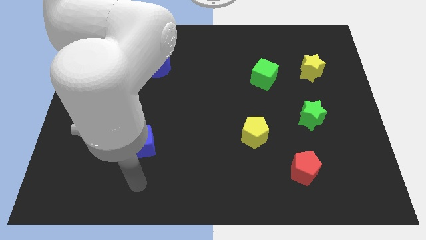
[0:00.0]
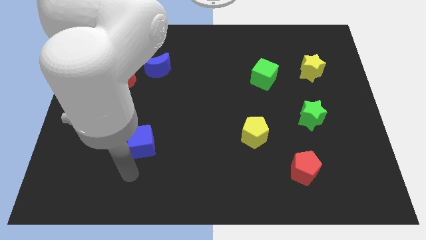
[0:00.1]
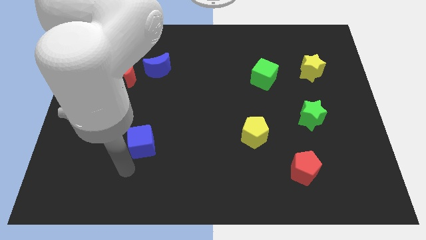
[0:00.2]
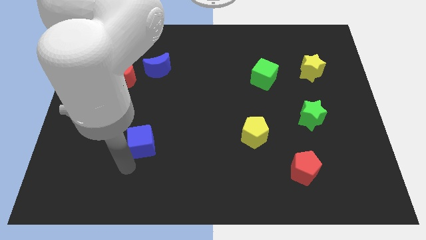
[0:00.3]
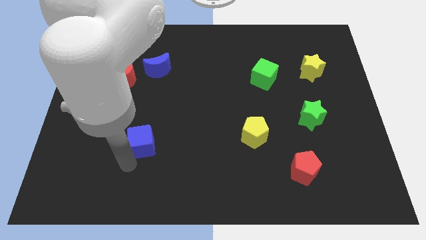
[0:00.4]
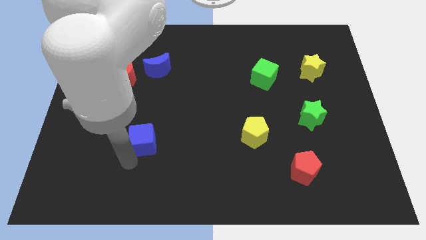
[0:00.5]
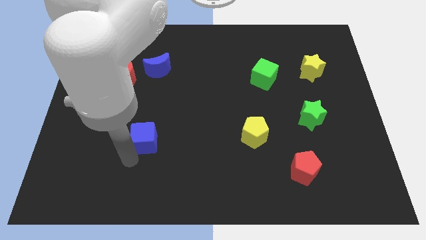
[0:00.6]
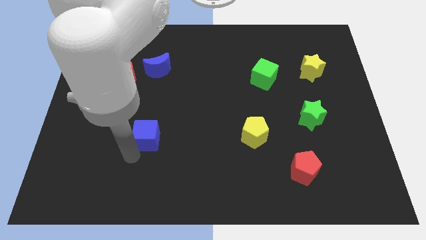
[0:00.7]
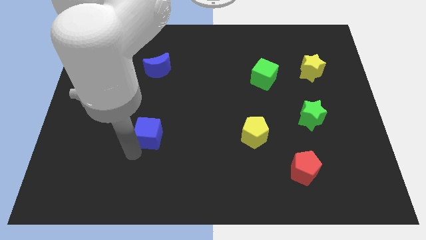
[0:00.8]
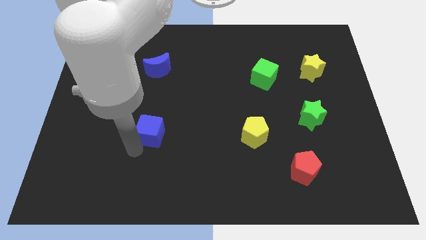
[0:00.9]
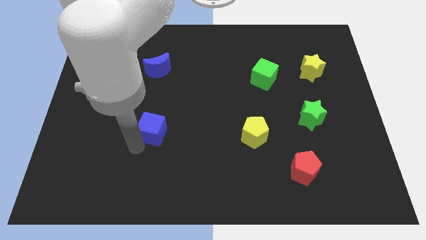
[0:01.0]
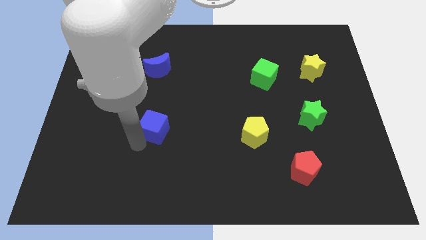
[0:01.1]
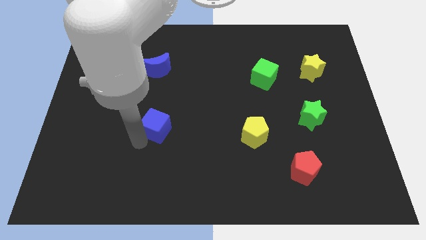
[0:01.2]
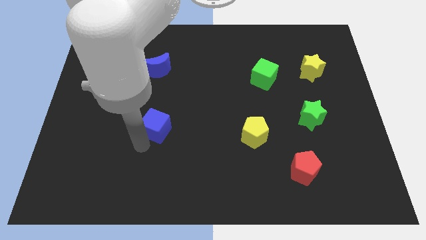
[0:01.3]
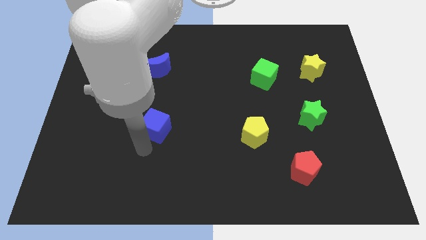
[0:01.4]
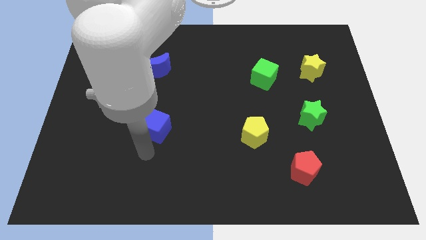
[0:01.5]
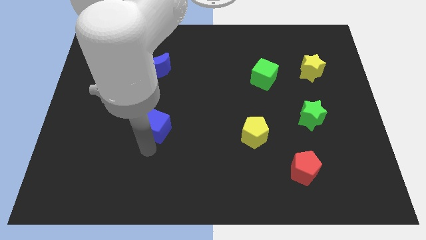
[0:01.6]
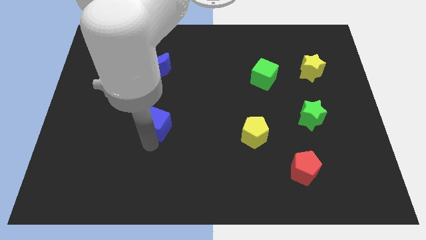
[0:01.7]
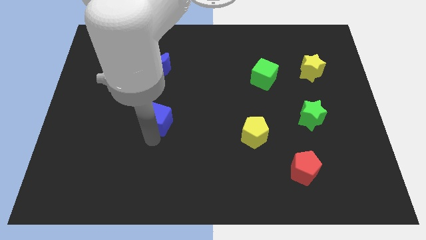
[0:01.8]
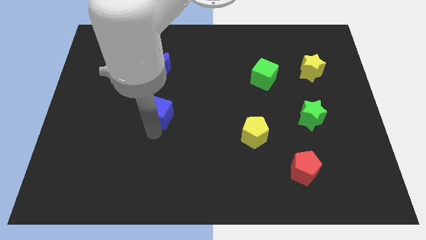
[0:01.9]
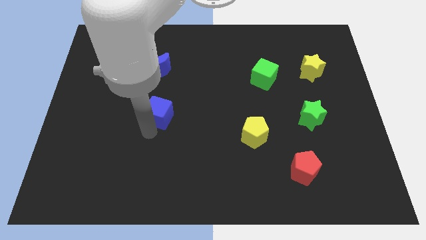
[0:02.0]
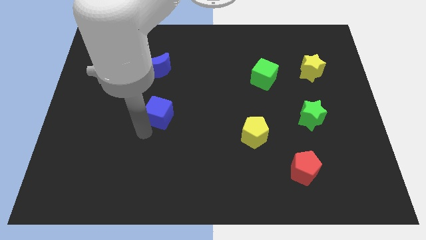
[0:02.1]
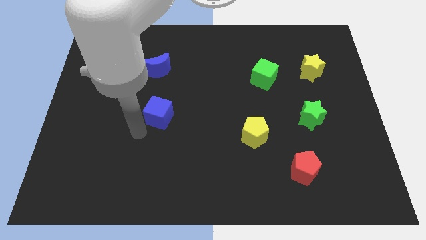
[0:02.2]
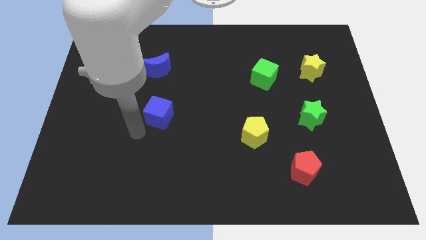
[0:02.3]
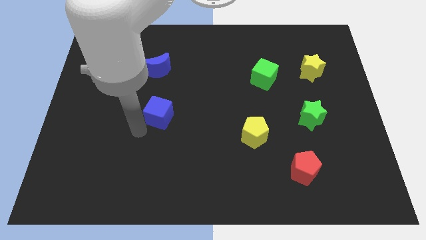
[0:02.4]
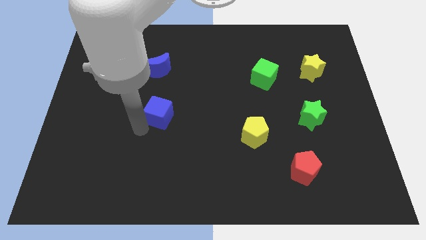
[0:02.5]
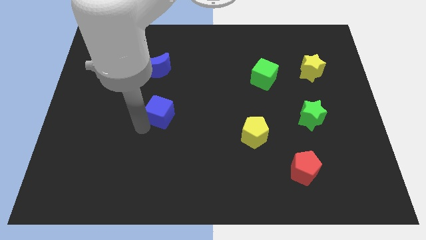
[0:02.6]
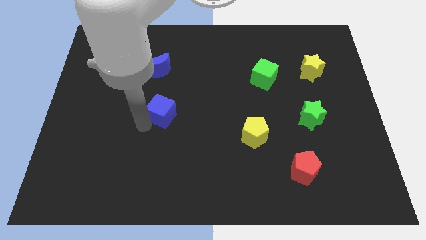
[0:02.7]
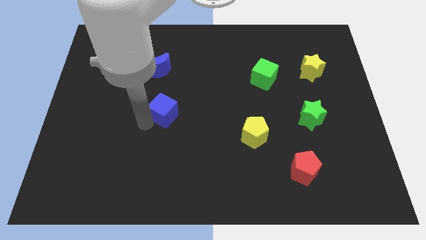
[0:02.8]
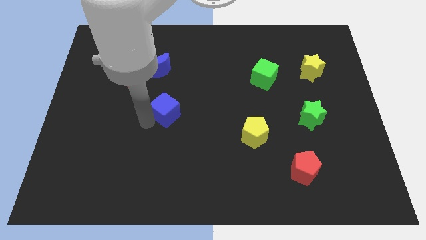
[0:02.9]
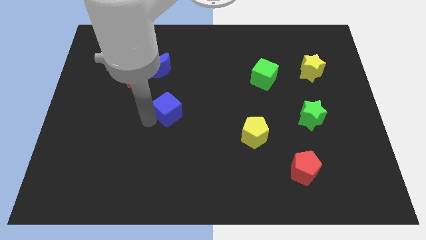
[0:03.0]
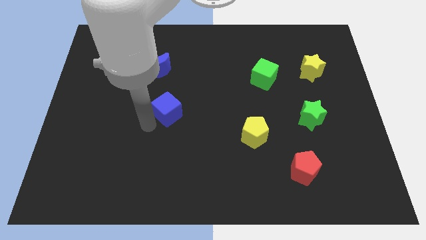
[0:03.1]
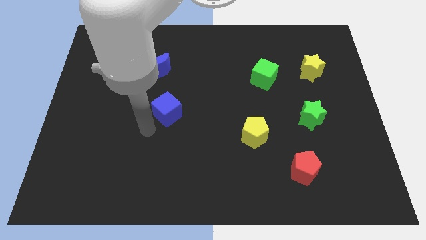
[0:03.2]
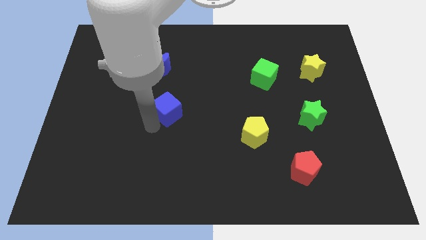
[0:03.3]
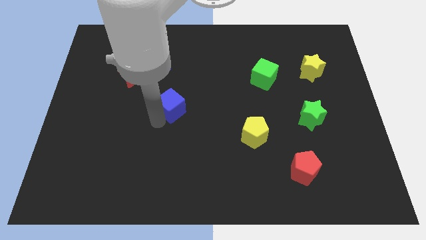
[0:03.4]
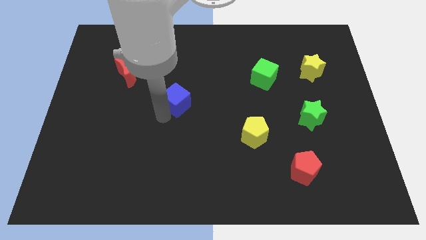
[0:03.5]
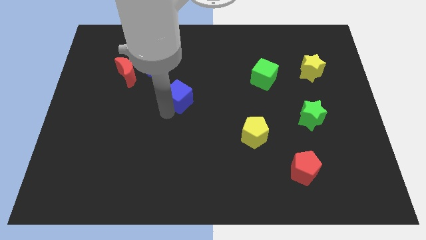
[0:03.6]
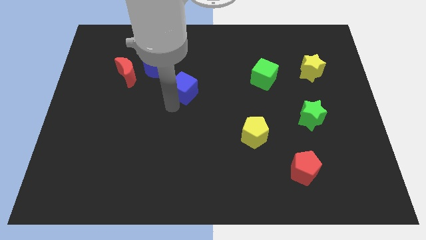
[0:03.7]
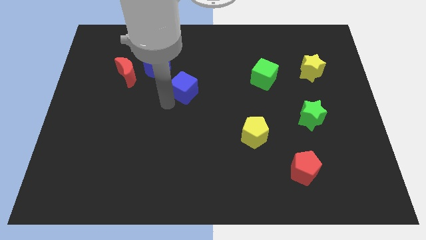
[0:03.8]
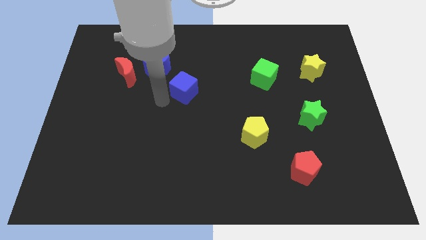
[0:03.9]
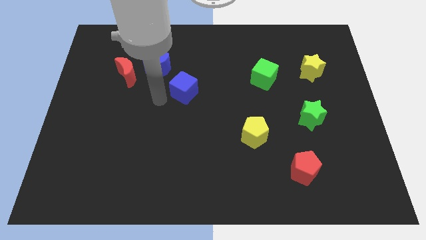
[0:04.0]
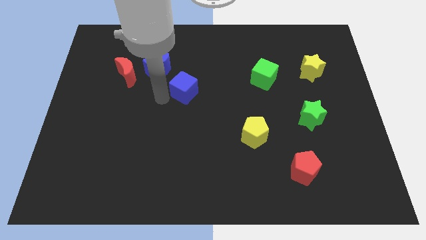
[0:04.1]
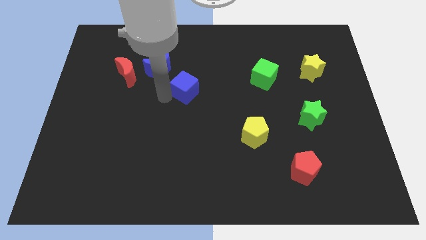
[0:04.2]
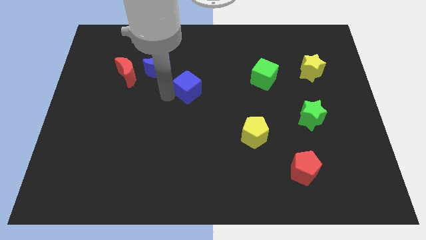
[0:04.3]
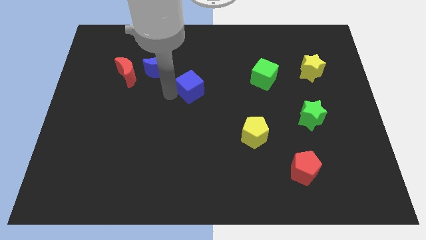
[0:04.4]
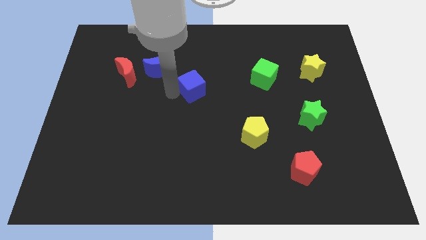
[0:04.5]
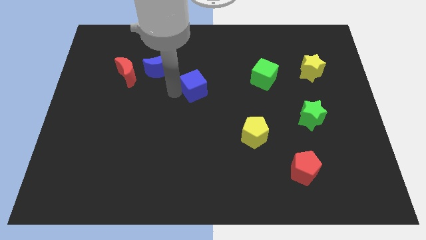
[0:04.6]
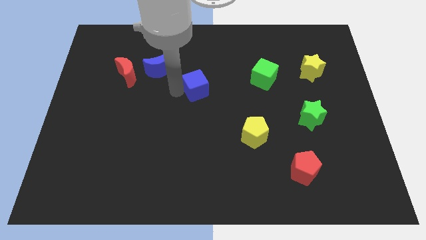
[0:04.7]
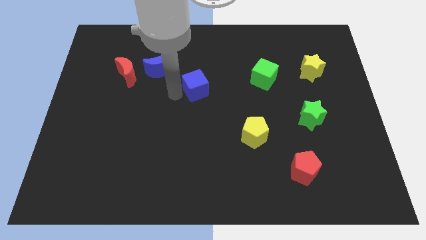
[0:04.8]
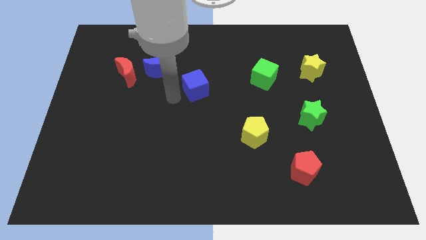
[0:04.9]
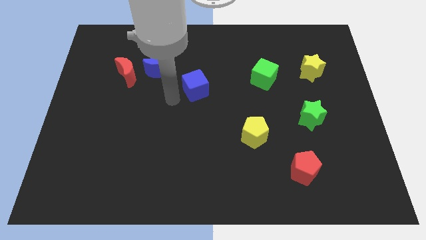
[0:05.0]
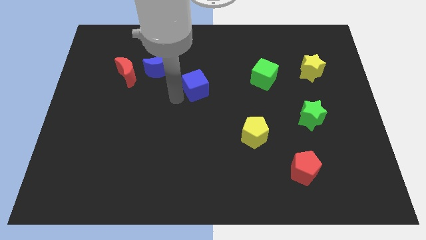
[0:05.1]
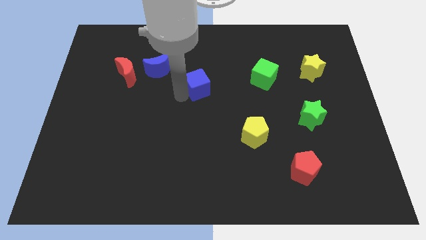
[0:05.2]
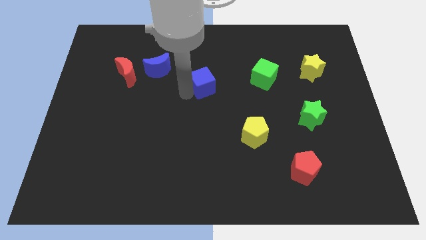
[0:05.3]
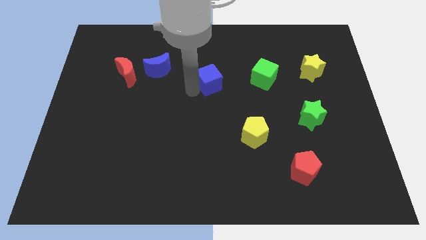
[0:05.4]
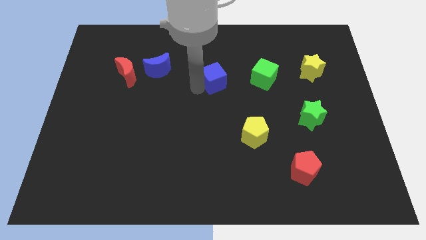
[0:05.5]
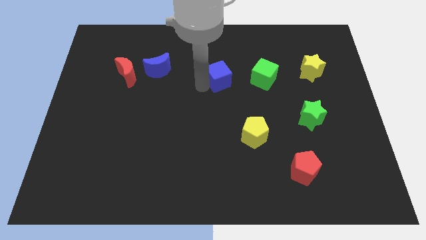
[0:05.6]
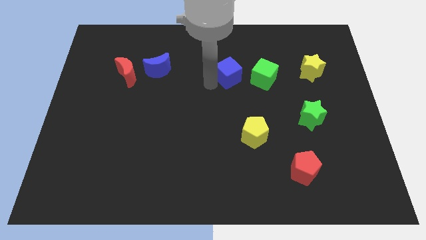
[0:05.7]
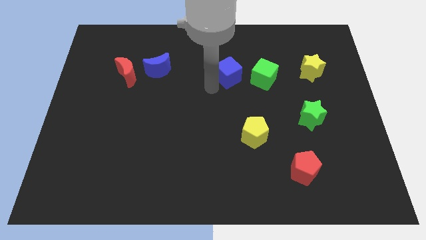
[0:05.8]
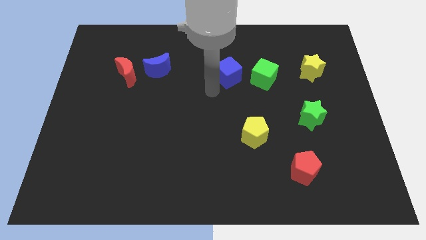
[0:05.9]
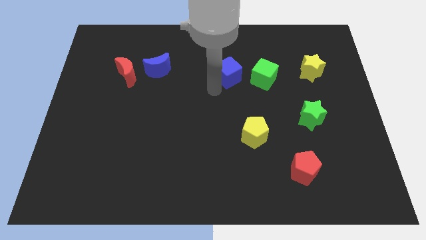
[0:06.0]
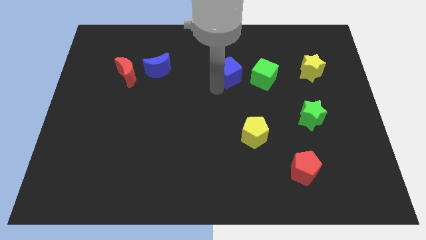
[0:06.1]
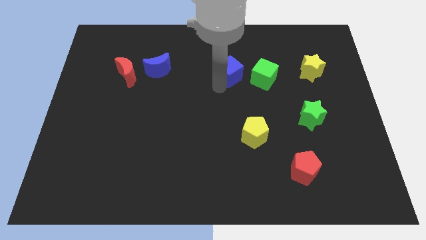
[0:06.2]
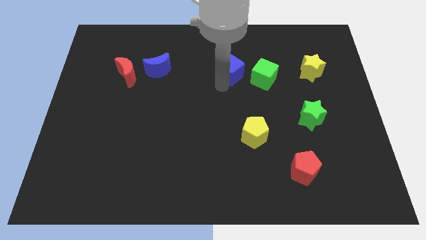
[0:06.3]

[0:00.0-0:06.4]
move the blue cube diagonally up and to the left of the green cube
